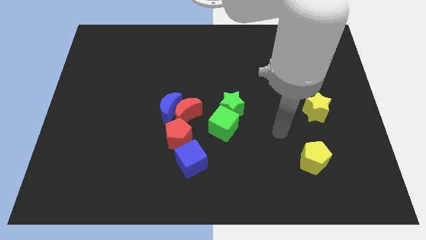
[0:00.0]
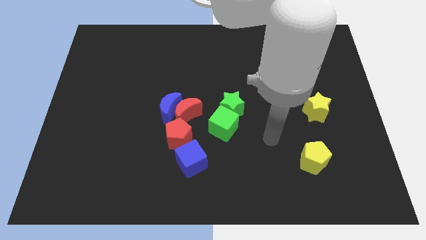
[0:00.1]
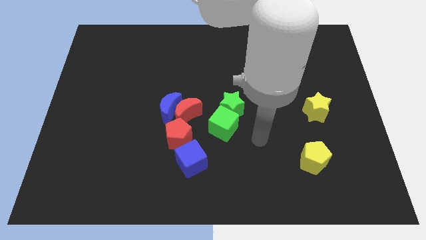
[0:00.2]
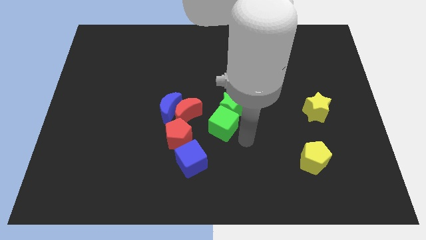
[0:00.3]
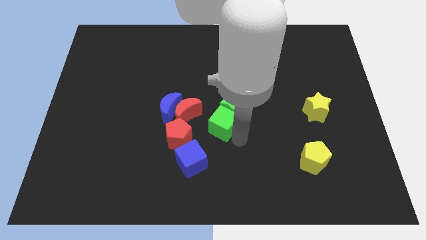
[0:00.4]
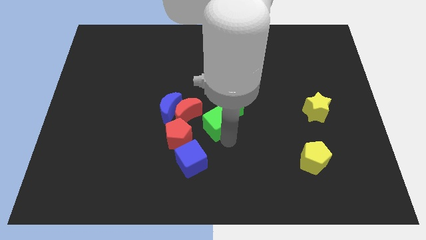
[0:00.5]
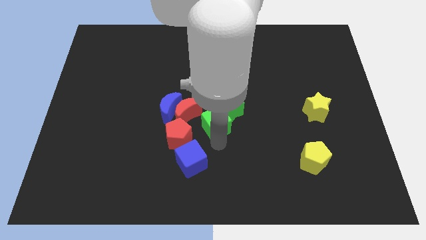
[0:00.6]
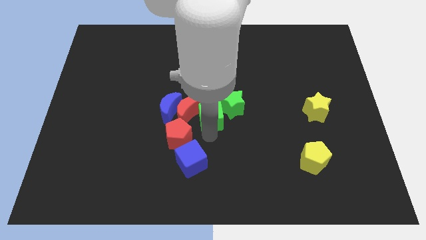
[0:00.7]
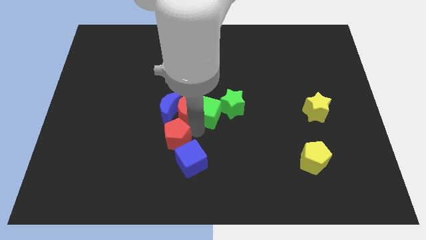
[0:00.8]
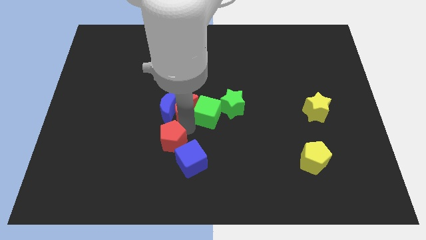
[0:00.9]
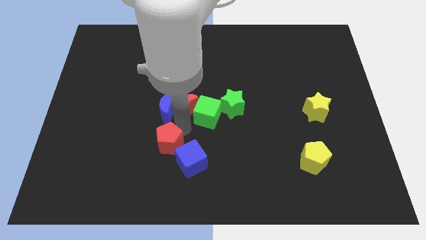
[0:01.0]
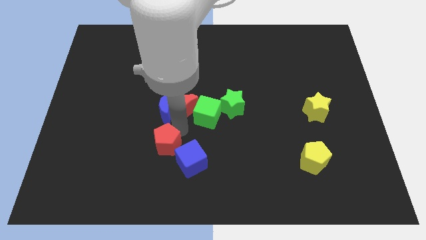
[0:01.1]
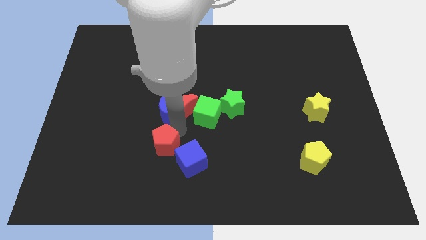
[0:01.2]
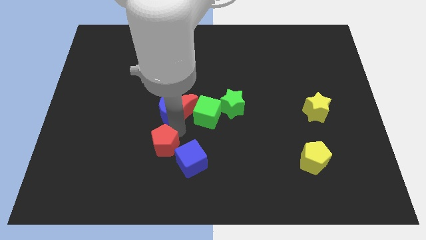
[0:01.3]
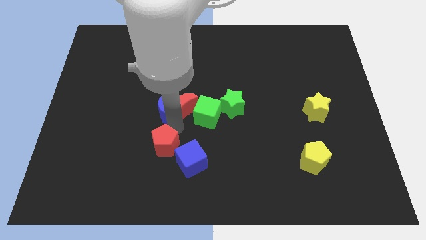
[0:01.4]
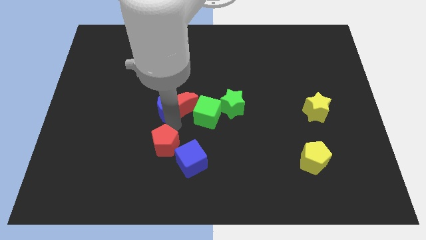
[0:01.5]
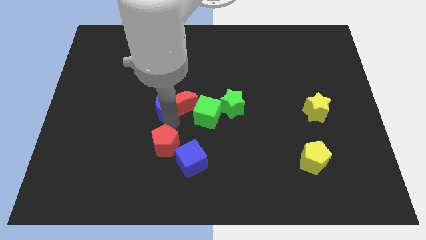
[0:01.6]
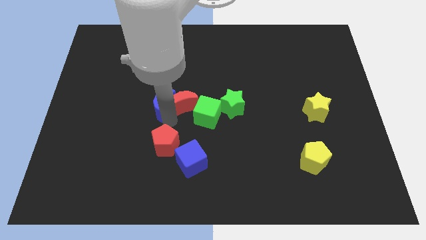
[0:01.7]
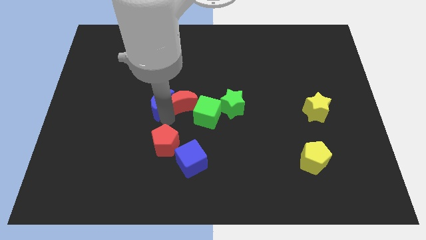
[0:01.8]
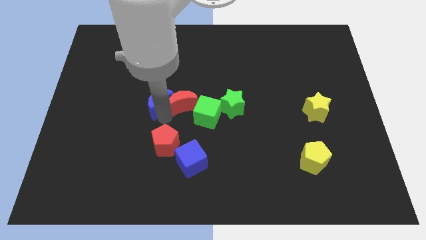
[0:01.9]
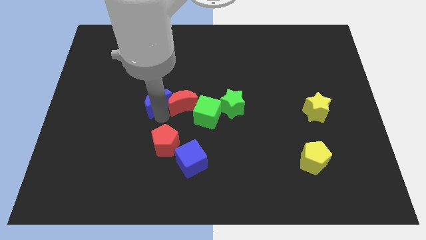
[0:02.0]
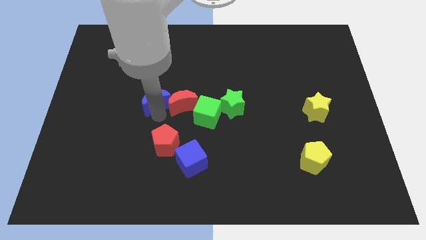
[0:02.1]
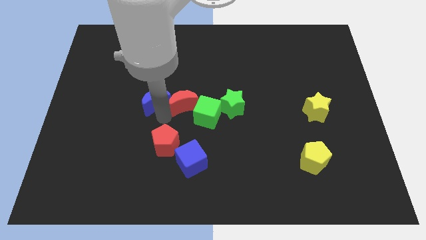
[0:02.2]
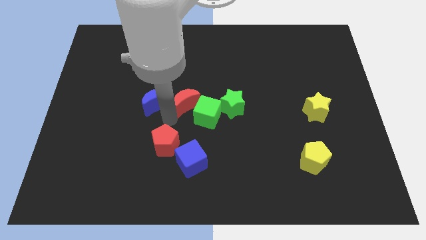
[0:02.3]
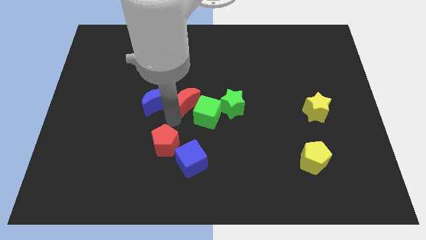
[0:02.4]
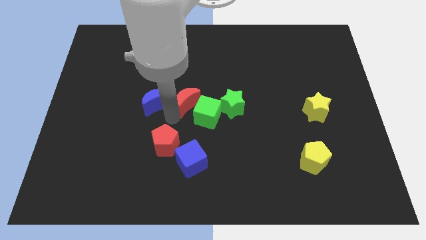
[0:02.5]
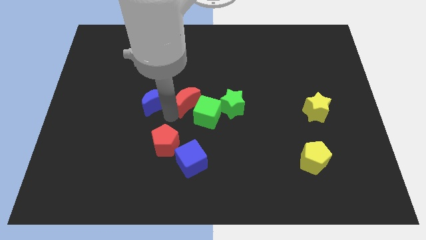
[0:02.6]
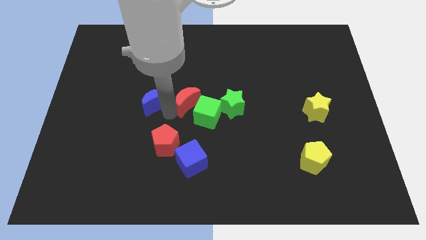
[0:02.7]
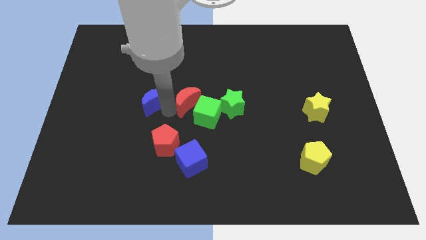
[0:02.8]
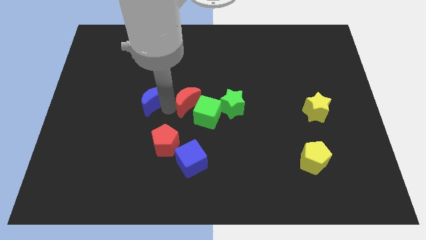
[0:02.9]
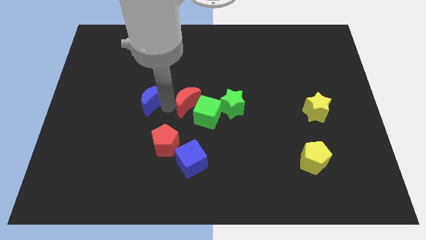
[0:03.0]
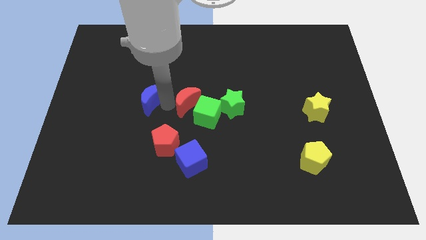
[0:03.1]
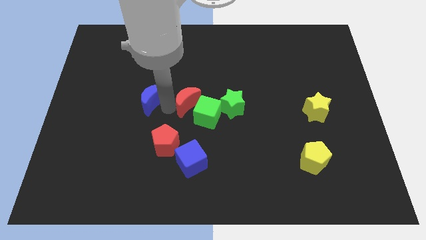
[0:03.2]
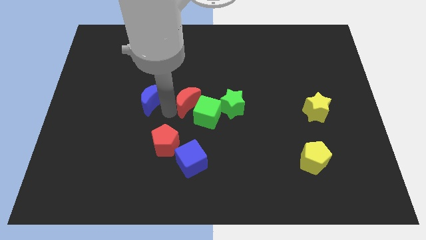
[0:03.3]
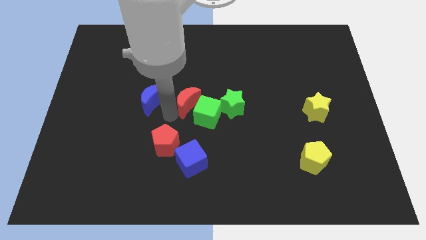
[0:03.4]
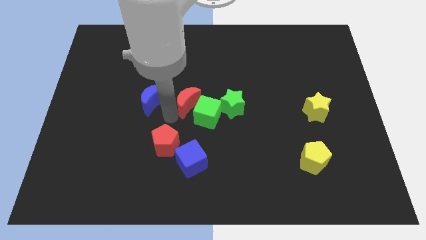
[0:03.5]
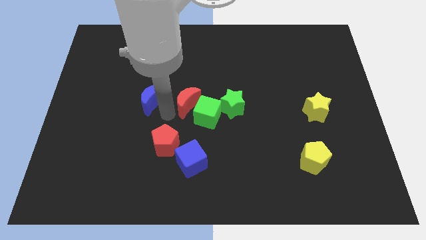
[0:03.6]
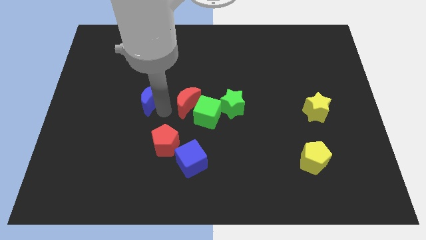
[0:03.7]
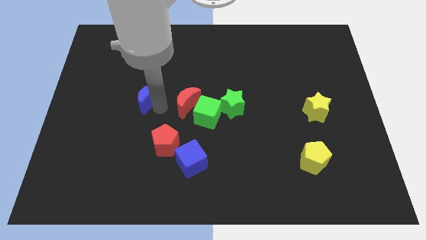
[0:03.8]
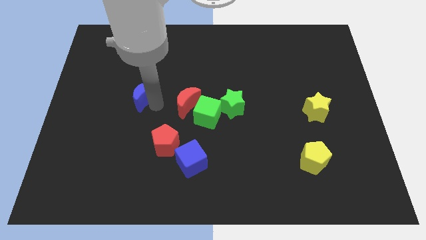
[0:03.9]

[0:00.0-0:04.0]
pull the blue moon apart from the red moon and red pentagon

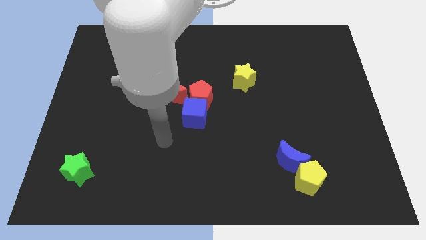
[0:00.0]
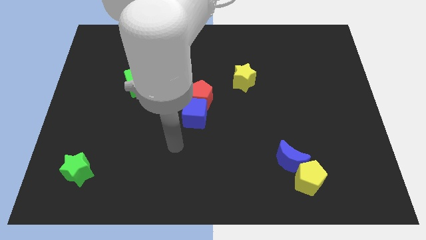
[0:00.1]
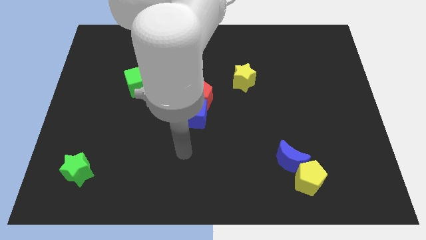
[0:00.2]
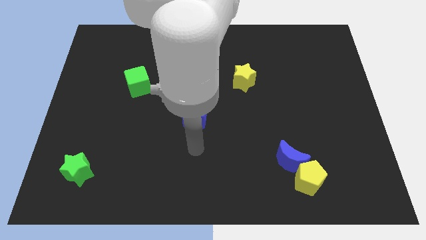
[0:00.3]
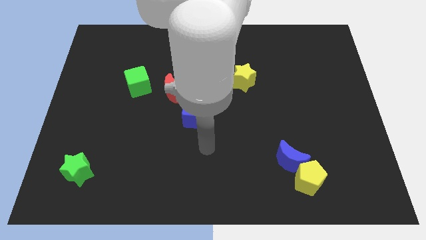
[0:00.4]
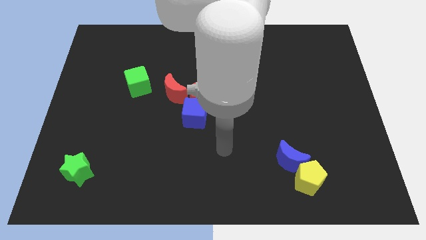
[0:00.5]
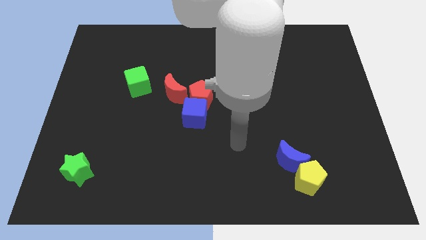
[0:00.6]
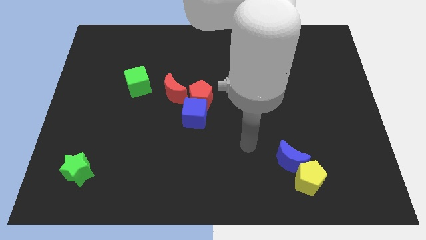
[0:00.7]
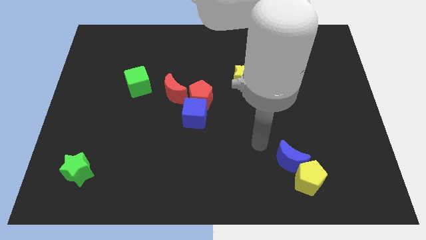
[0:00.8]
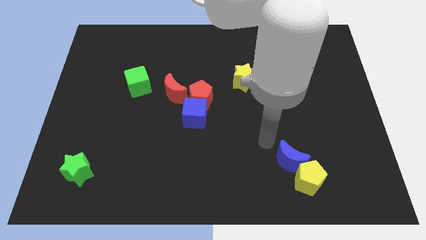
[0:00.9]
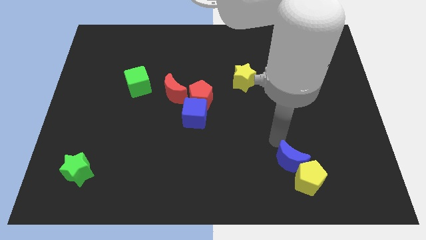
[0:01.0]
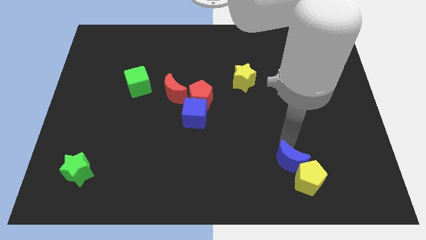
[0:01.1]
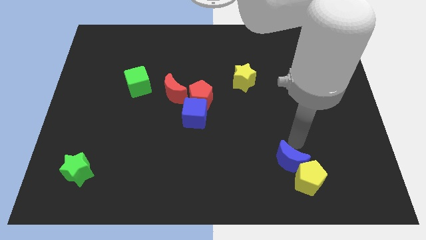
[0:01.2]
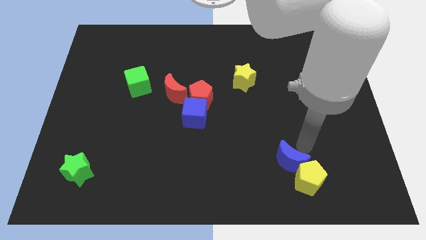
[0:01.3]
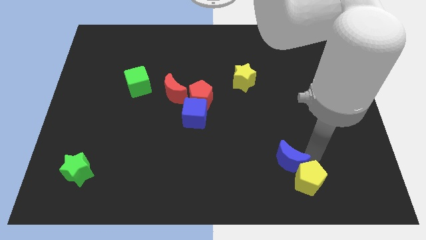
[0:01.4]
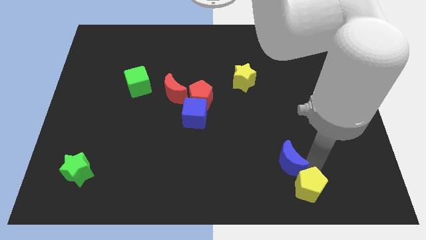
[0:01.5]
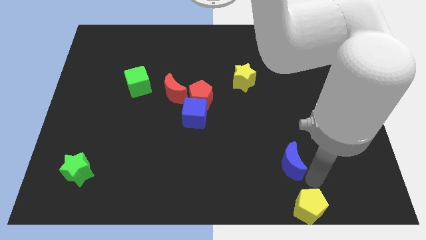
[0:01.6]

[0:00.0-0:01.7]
pull the blue moon apart from the yellow pentagon

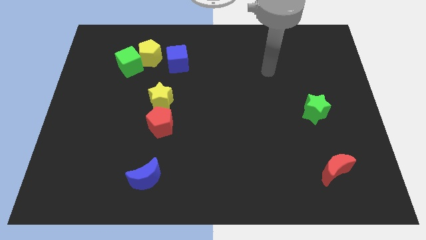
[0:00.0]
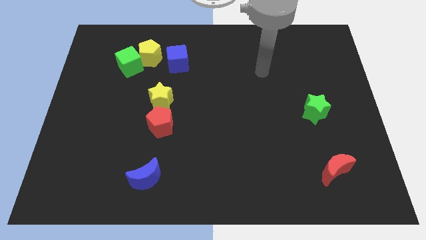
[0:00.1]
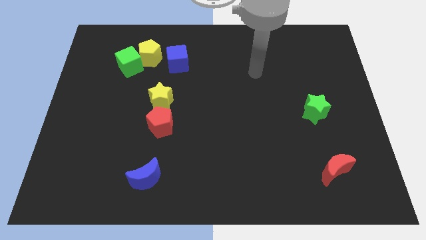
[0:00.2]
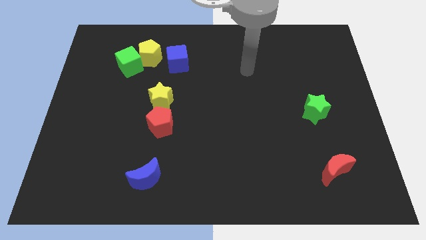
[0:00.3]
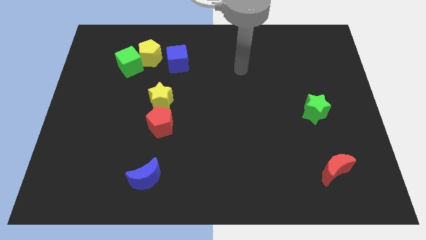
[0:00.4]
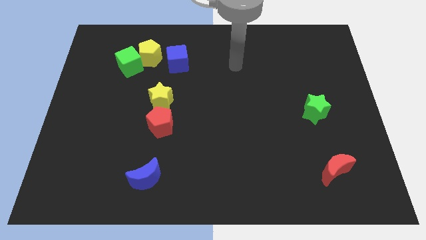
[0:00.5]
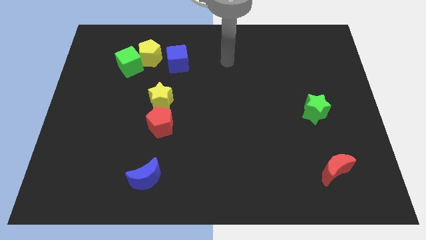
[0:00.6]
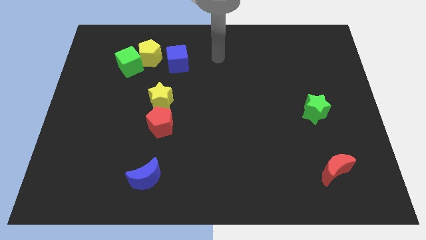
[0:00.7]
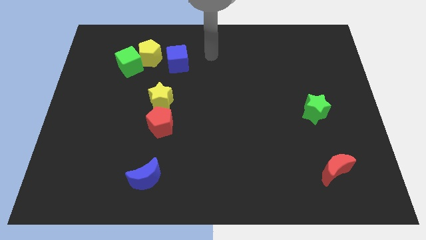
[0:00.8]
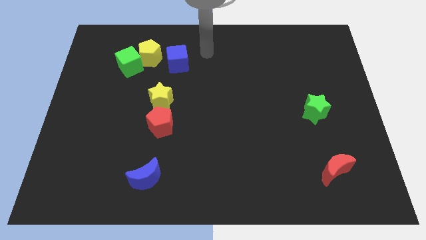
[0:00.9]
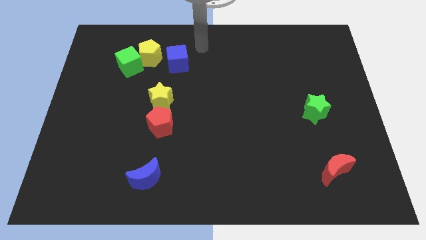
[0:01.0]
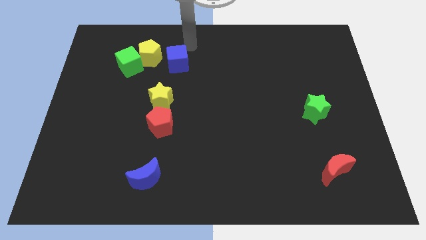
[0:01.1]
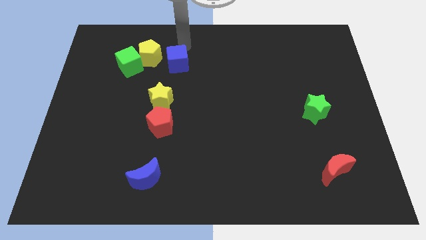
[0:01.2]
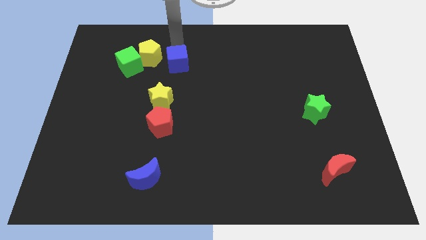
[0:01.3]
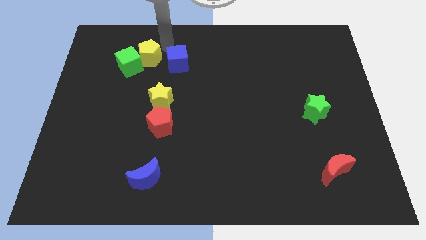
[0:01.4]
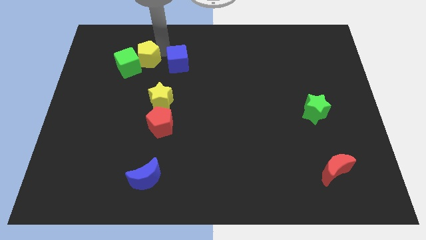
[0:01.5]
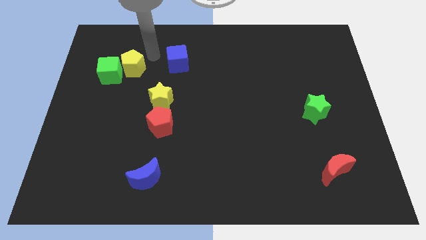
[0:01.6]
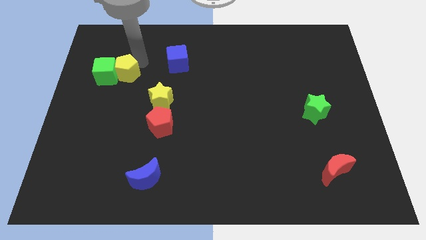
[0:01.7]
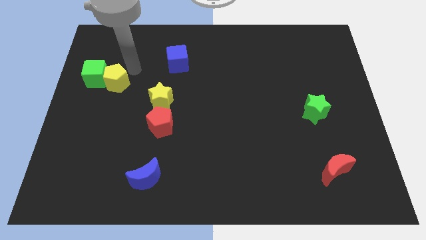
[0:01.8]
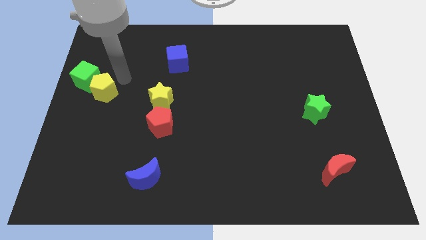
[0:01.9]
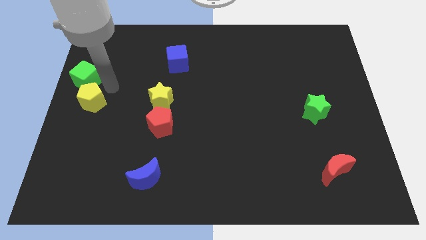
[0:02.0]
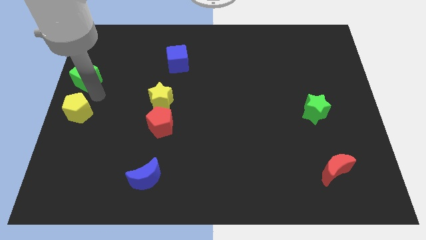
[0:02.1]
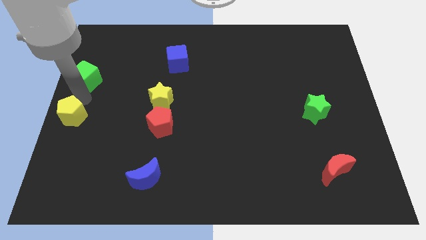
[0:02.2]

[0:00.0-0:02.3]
pull the green cube apart from the yellow pentagon

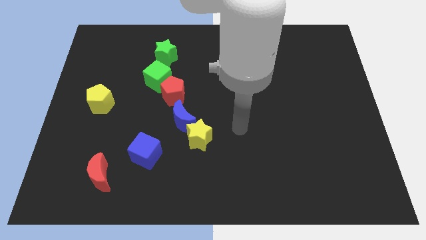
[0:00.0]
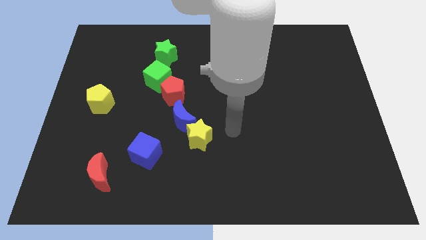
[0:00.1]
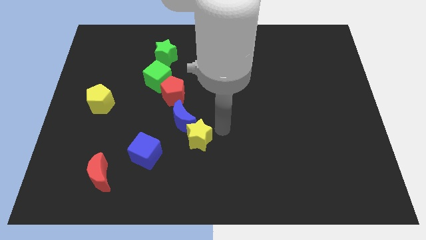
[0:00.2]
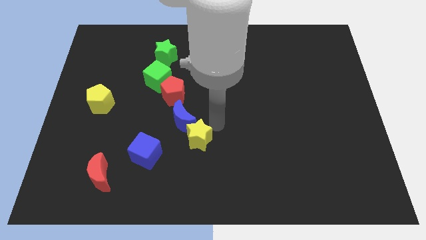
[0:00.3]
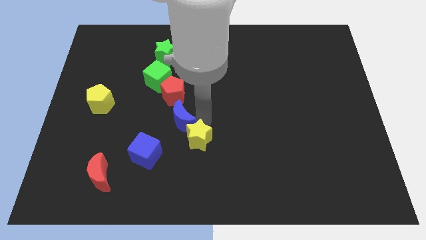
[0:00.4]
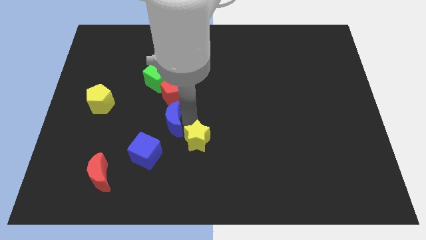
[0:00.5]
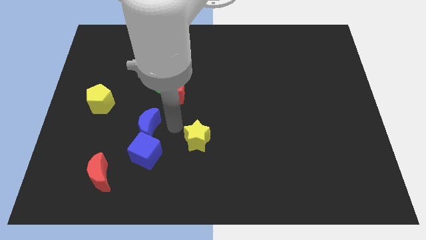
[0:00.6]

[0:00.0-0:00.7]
move the yellow star away from the blue moon

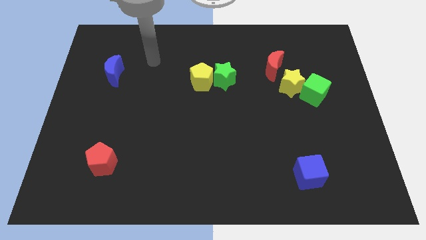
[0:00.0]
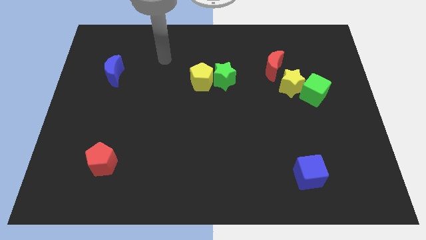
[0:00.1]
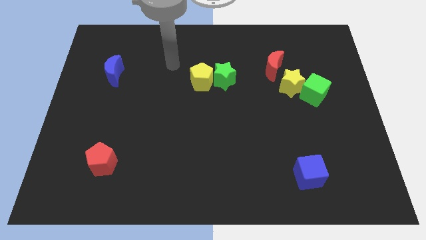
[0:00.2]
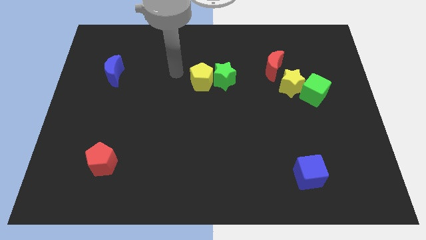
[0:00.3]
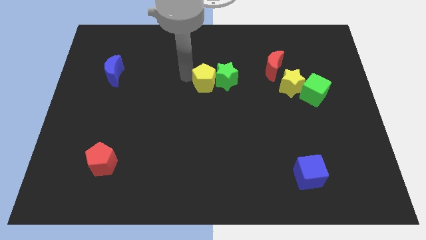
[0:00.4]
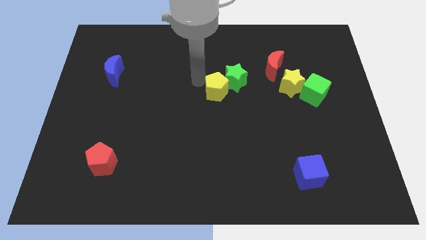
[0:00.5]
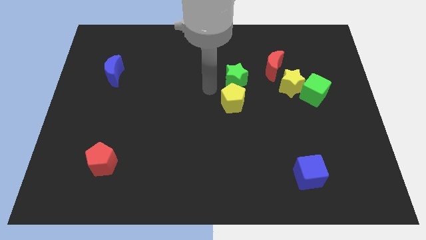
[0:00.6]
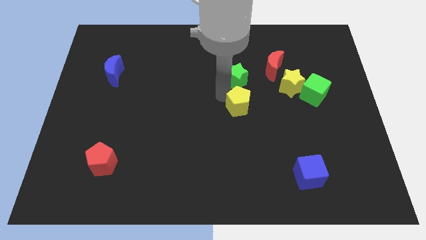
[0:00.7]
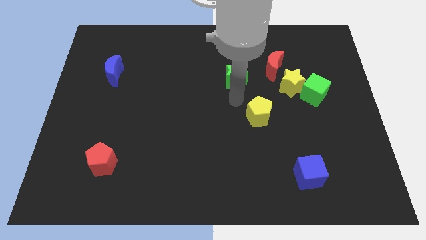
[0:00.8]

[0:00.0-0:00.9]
move the green star away from the yellow pentagon
